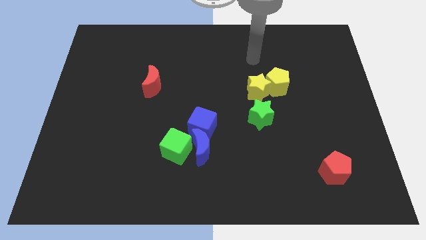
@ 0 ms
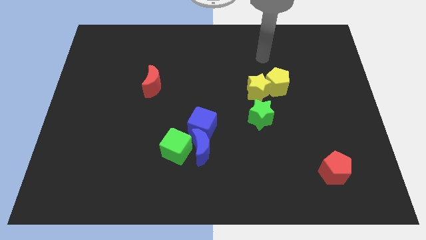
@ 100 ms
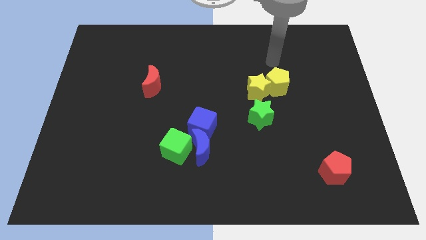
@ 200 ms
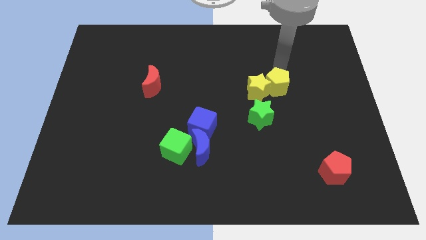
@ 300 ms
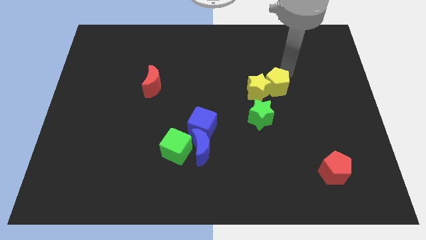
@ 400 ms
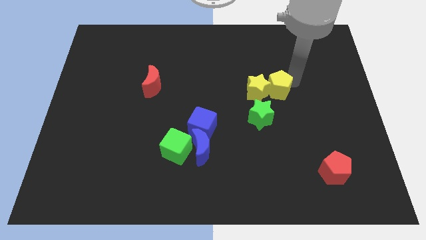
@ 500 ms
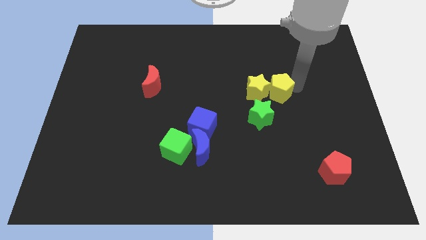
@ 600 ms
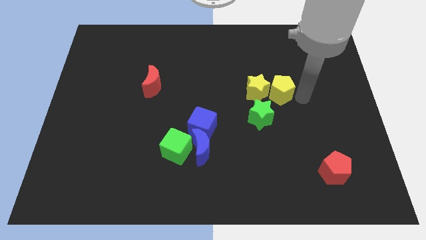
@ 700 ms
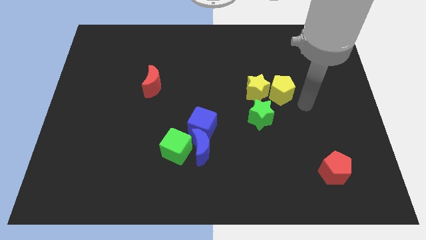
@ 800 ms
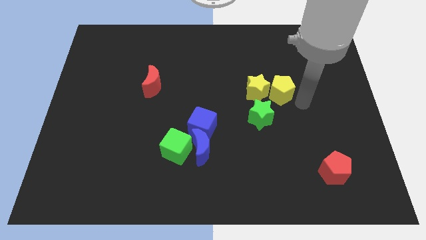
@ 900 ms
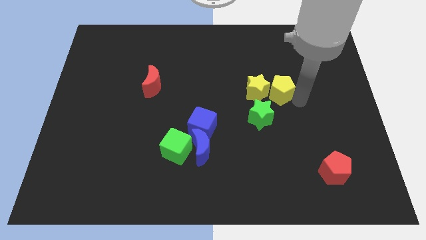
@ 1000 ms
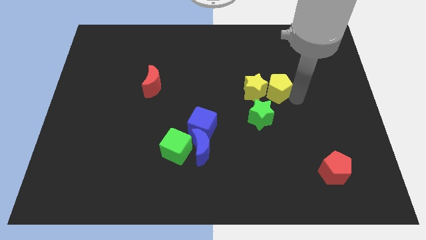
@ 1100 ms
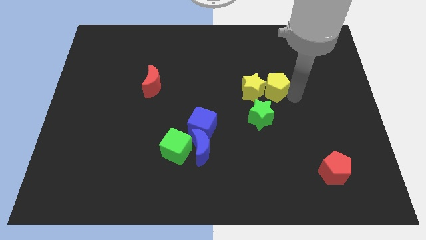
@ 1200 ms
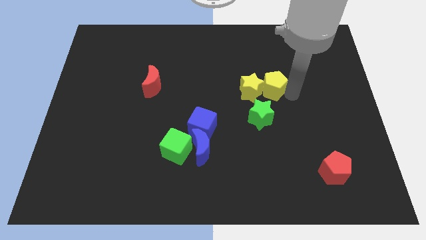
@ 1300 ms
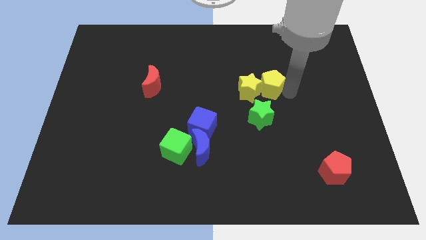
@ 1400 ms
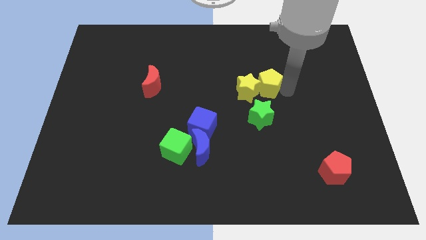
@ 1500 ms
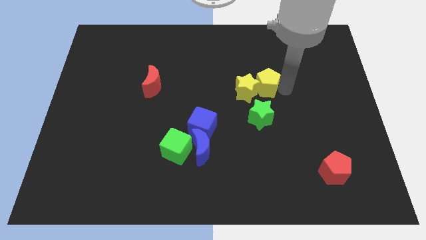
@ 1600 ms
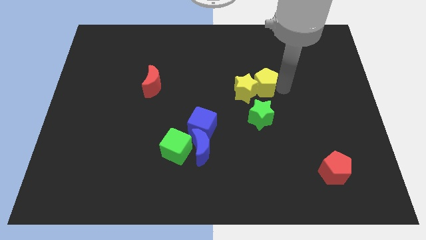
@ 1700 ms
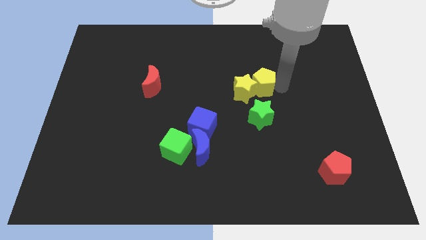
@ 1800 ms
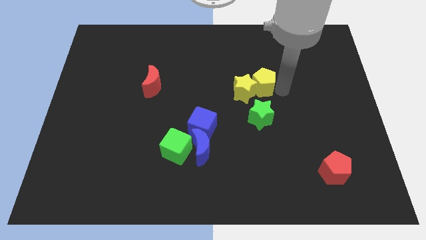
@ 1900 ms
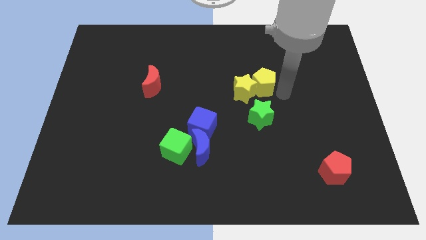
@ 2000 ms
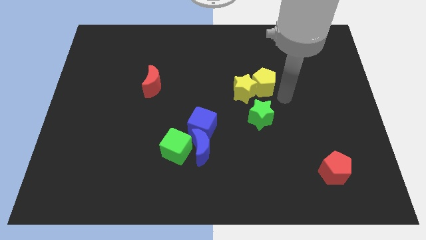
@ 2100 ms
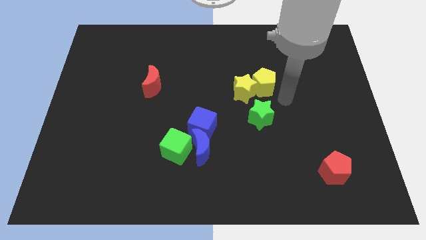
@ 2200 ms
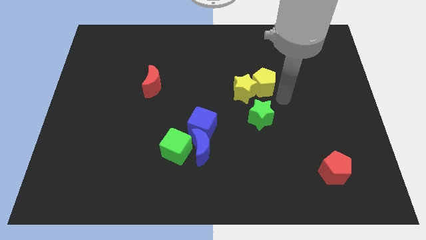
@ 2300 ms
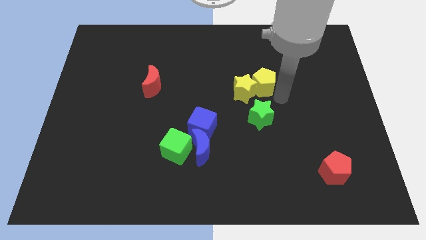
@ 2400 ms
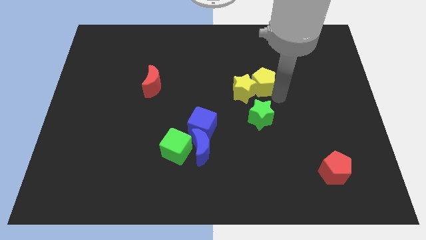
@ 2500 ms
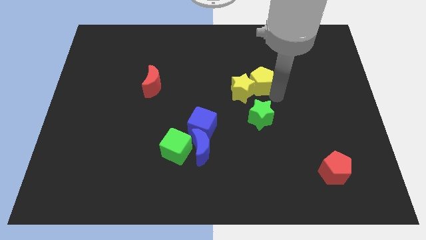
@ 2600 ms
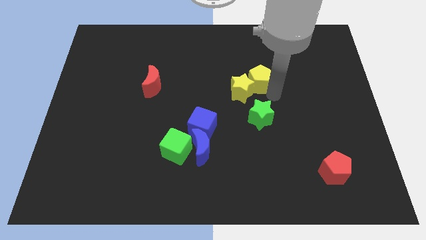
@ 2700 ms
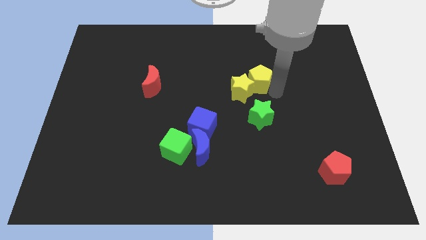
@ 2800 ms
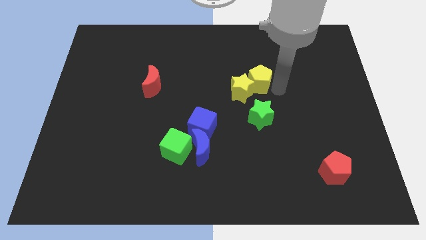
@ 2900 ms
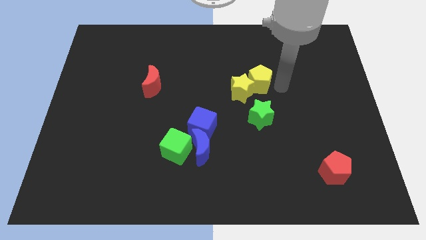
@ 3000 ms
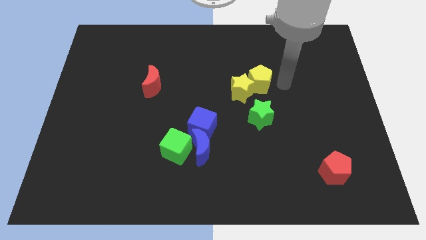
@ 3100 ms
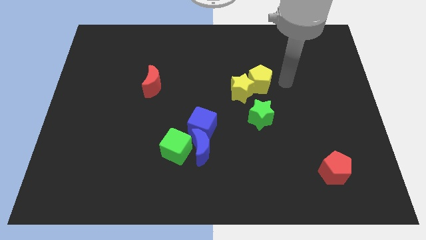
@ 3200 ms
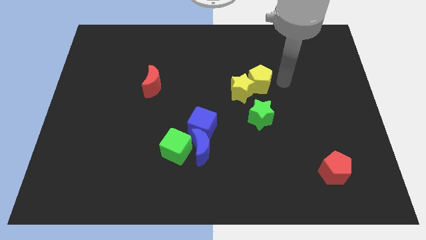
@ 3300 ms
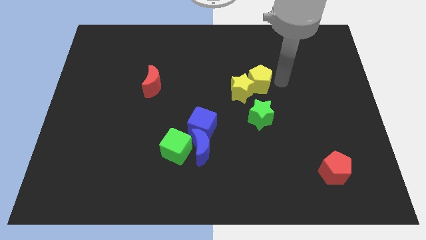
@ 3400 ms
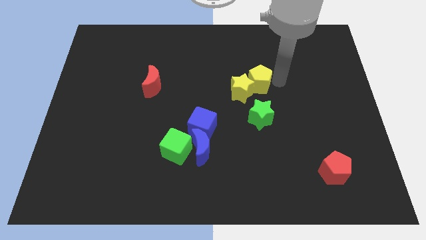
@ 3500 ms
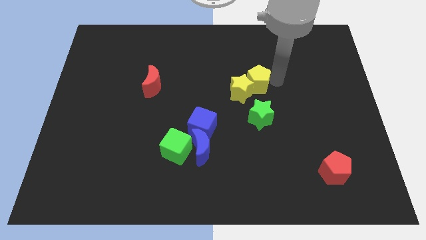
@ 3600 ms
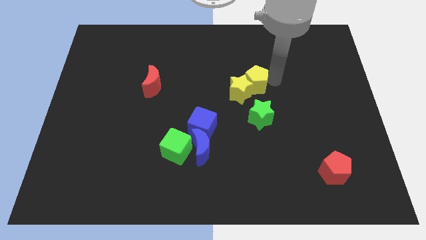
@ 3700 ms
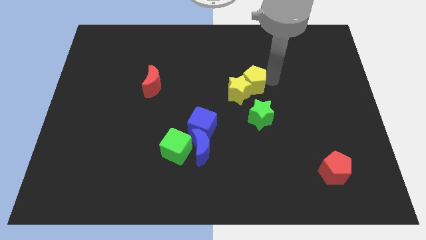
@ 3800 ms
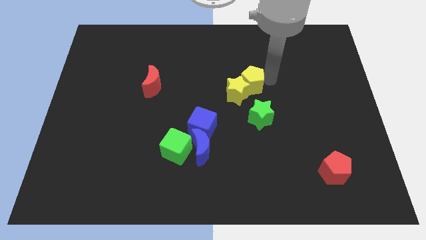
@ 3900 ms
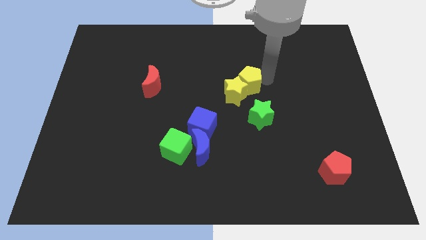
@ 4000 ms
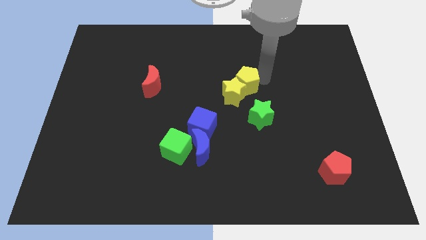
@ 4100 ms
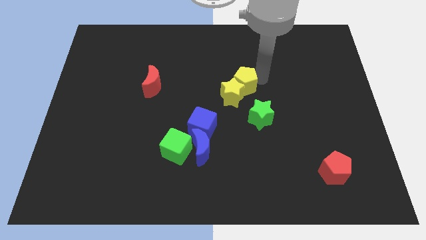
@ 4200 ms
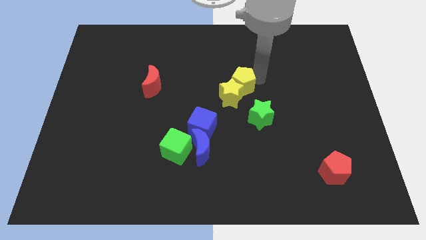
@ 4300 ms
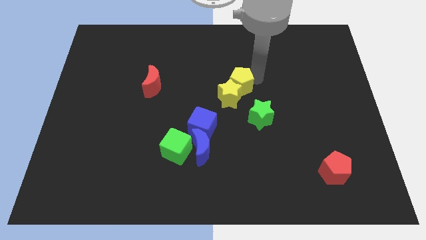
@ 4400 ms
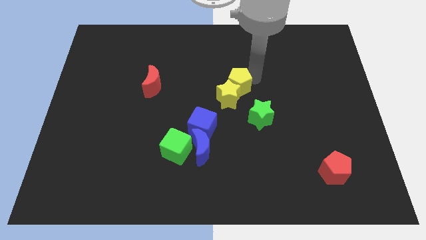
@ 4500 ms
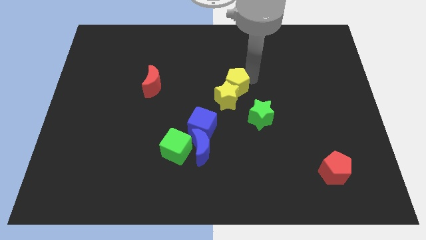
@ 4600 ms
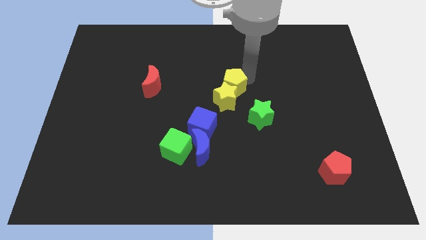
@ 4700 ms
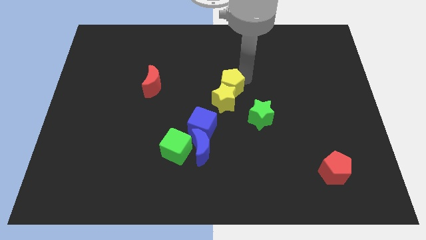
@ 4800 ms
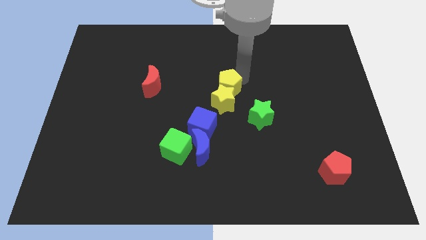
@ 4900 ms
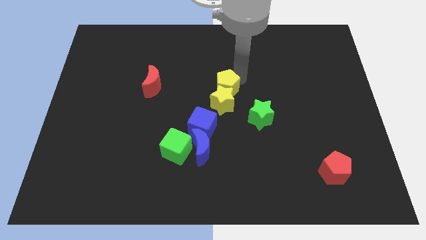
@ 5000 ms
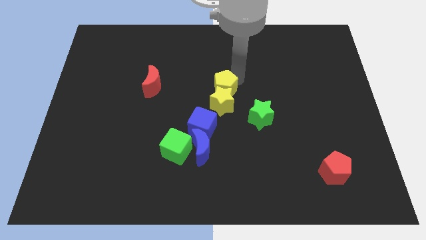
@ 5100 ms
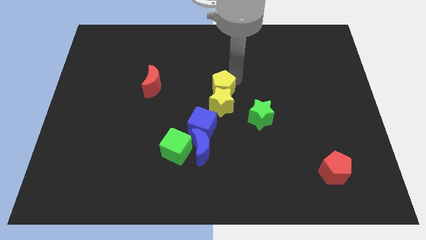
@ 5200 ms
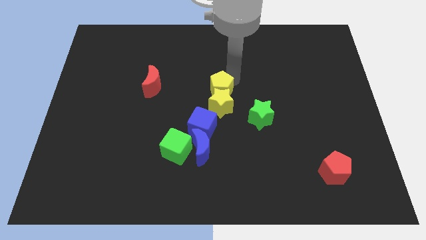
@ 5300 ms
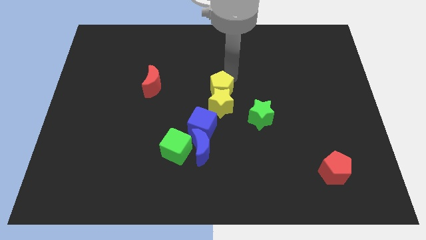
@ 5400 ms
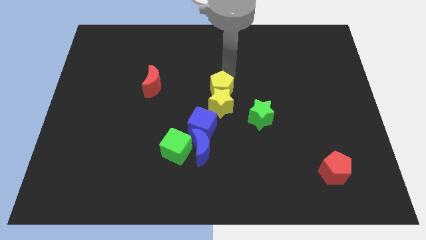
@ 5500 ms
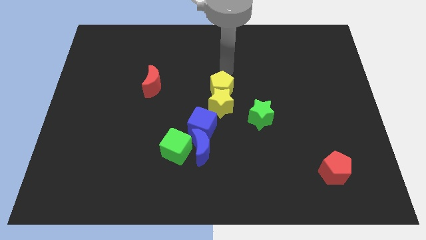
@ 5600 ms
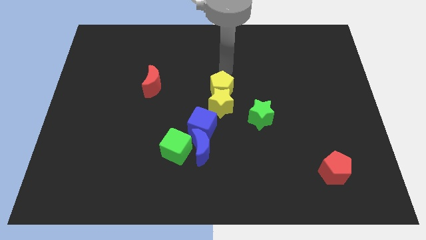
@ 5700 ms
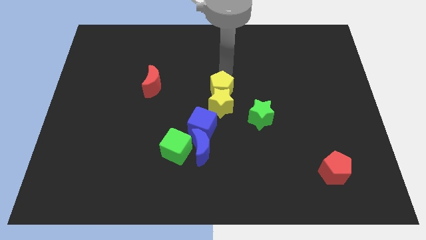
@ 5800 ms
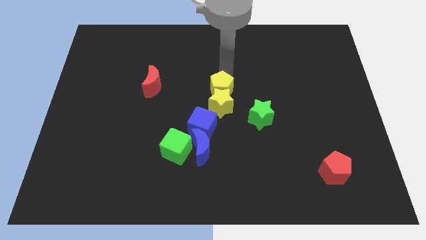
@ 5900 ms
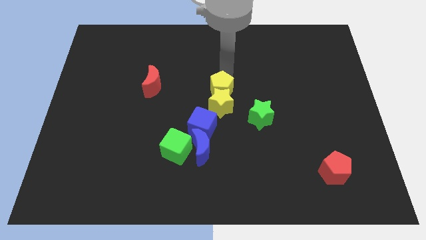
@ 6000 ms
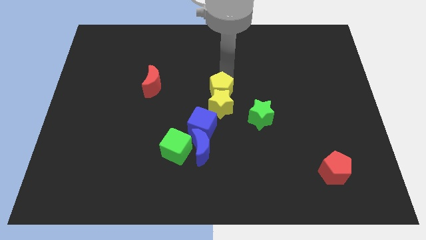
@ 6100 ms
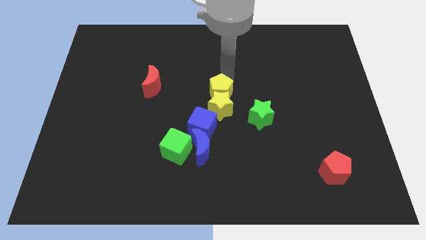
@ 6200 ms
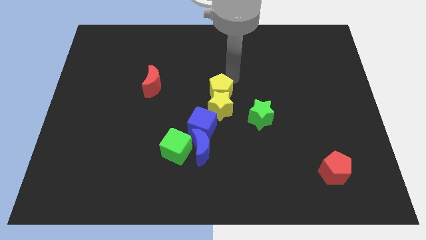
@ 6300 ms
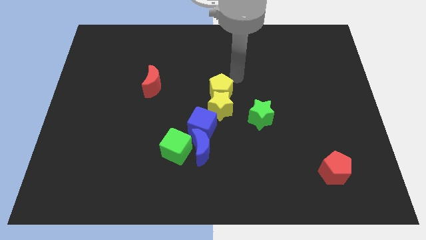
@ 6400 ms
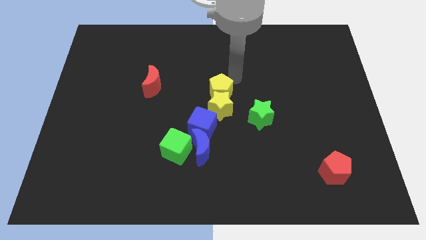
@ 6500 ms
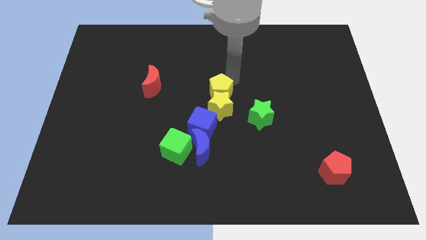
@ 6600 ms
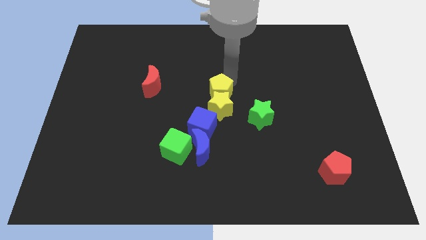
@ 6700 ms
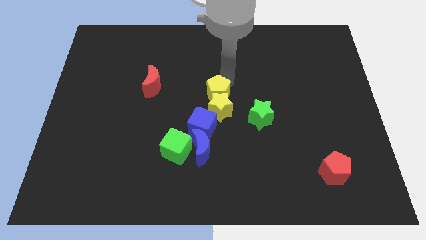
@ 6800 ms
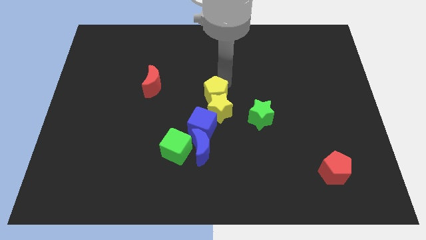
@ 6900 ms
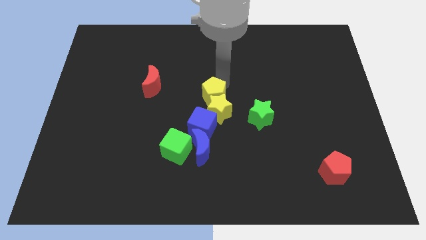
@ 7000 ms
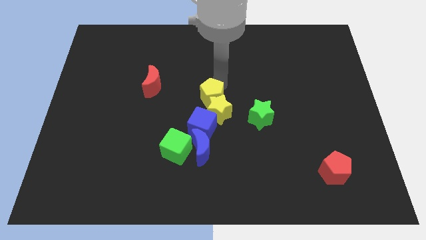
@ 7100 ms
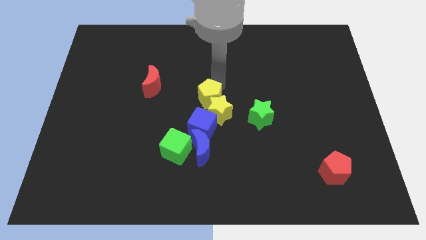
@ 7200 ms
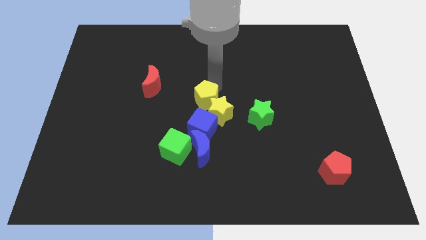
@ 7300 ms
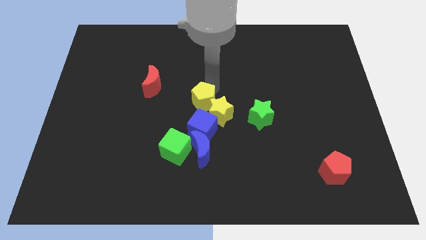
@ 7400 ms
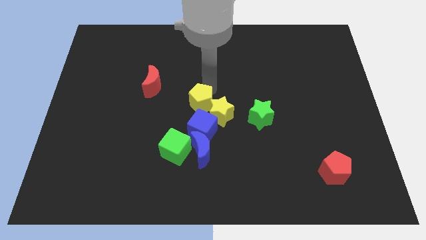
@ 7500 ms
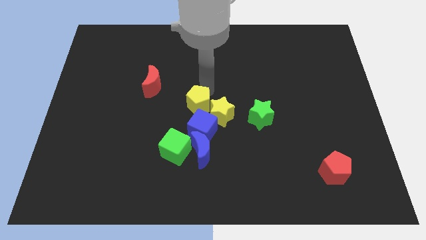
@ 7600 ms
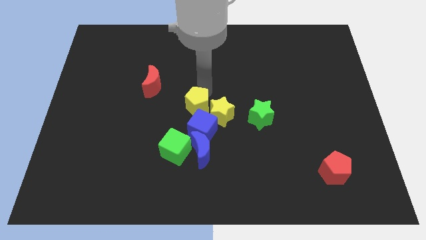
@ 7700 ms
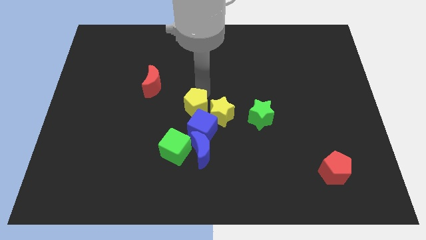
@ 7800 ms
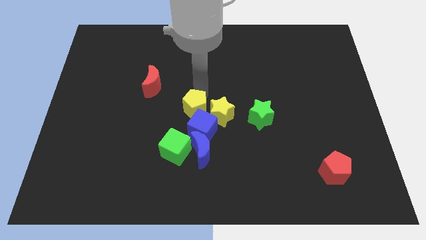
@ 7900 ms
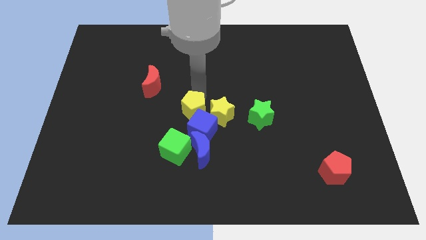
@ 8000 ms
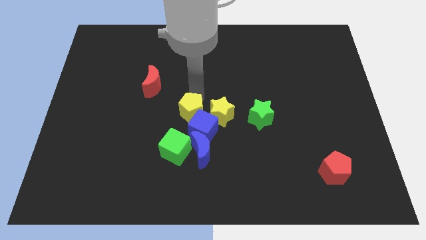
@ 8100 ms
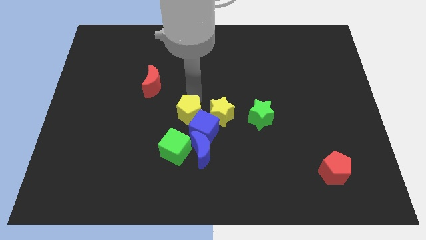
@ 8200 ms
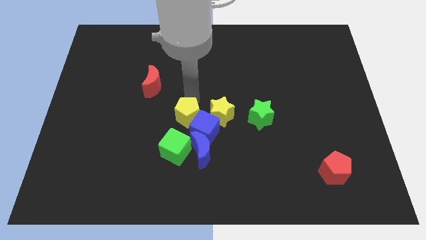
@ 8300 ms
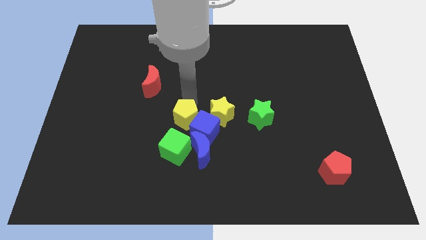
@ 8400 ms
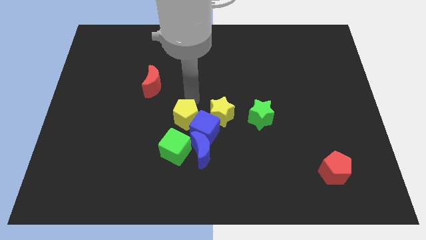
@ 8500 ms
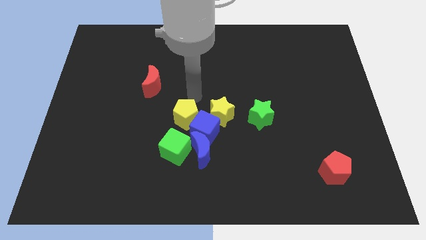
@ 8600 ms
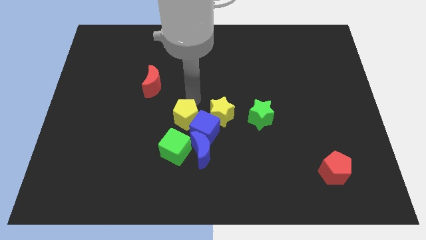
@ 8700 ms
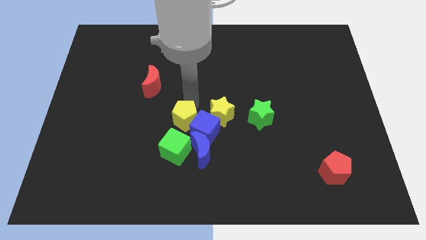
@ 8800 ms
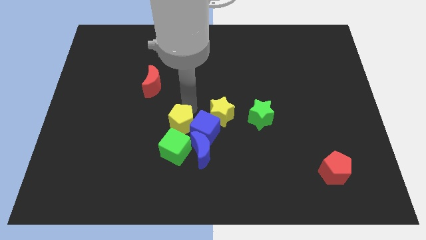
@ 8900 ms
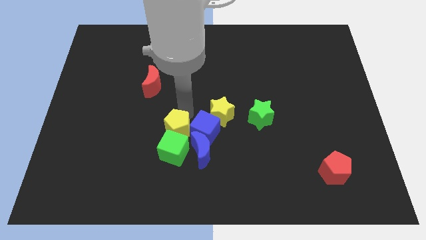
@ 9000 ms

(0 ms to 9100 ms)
move the yellow pentagon close to the green cube
